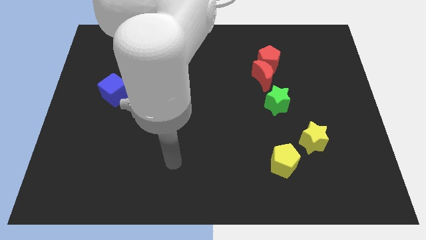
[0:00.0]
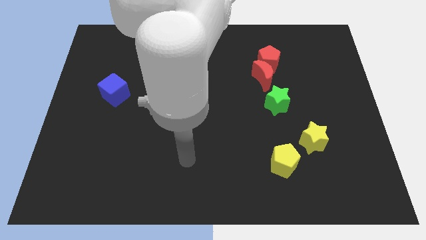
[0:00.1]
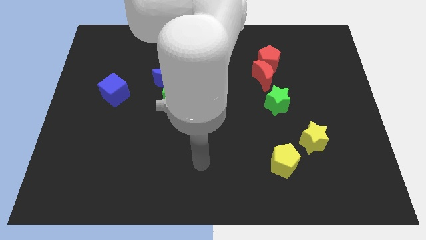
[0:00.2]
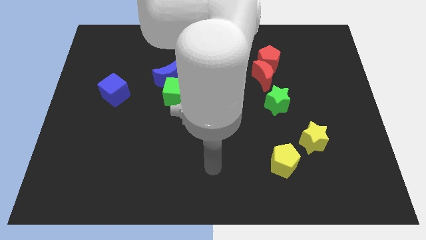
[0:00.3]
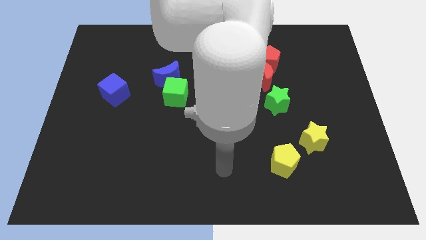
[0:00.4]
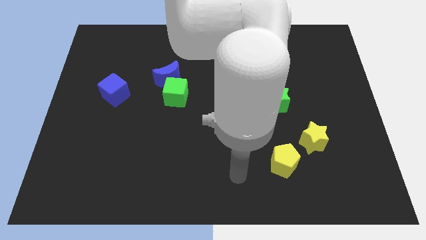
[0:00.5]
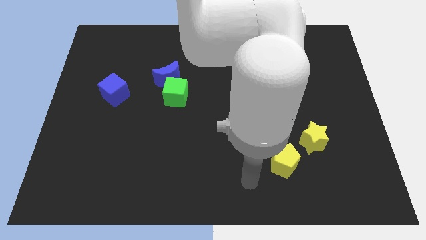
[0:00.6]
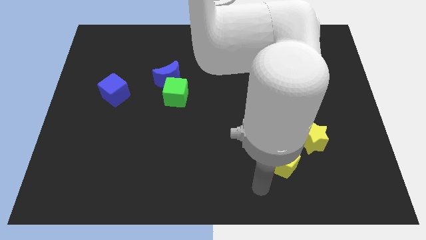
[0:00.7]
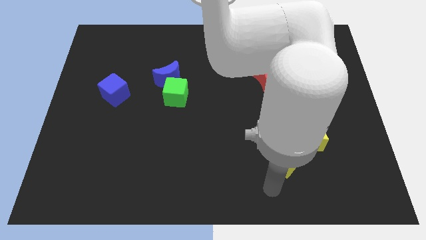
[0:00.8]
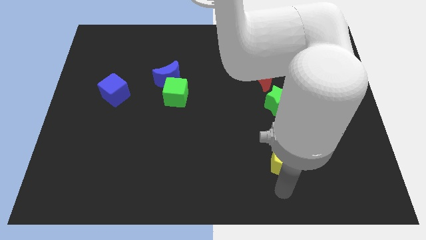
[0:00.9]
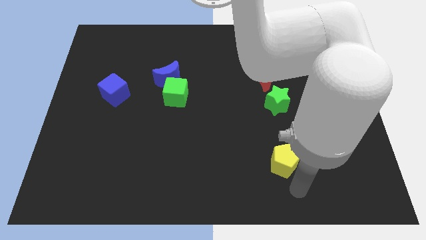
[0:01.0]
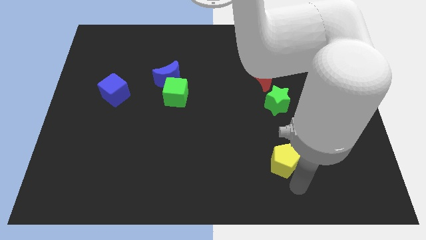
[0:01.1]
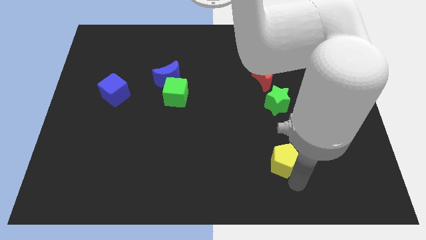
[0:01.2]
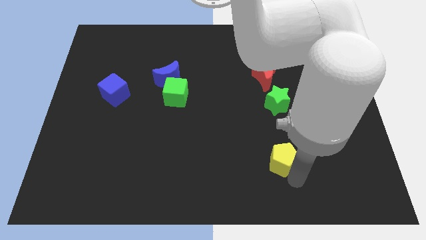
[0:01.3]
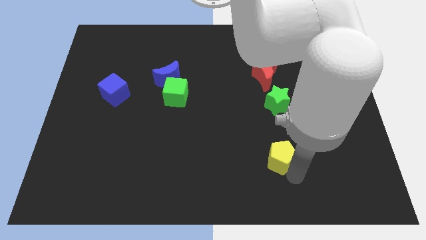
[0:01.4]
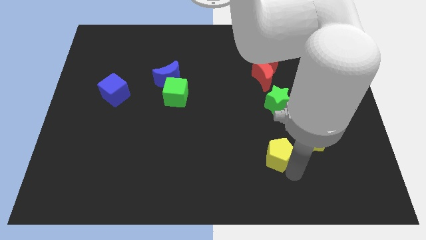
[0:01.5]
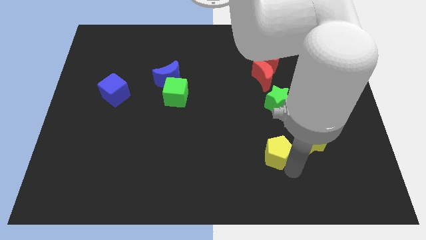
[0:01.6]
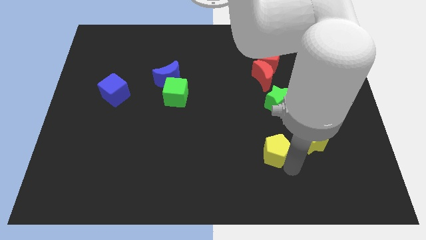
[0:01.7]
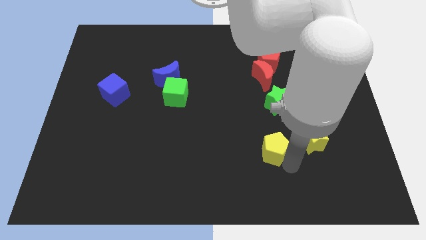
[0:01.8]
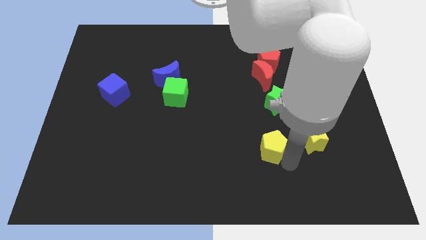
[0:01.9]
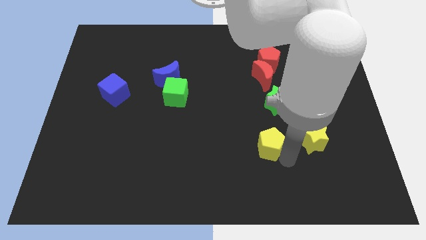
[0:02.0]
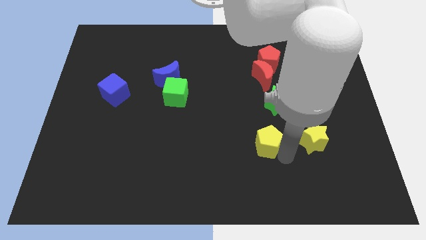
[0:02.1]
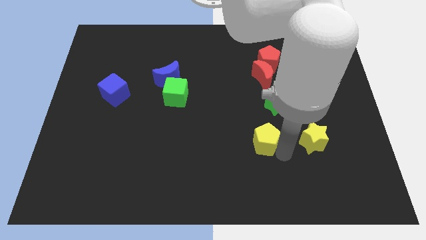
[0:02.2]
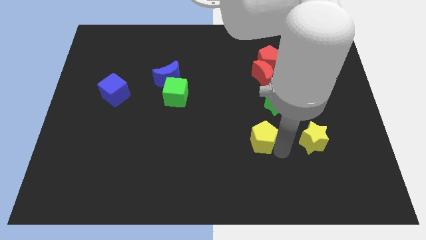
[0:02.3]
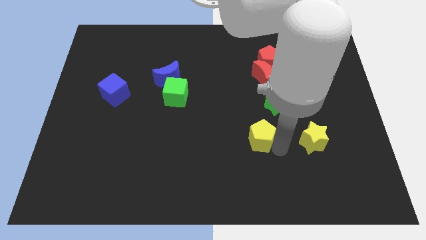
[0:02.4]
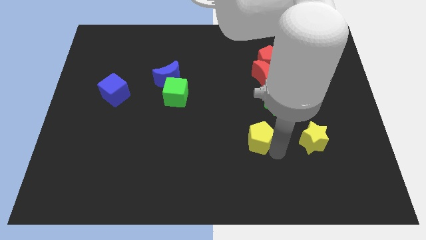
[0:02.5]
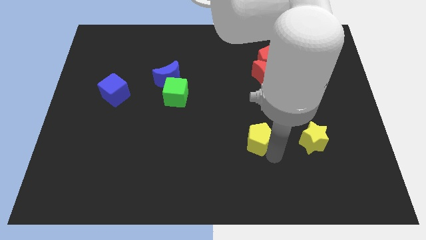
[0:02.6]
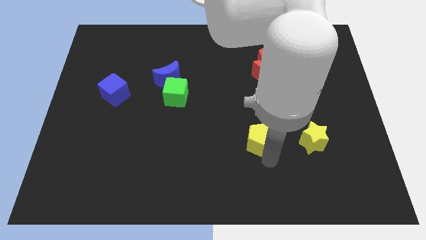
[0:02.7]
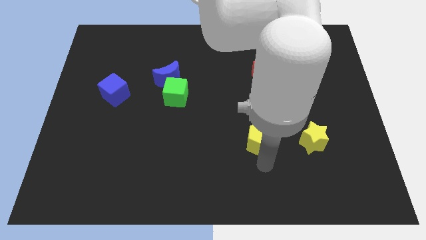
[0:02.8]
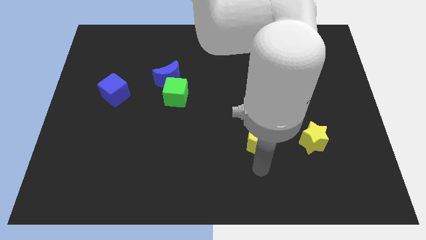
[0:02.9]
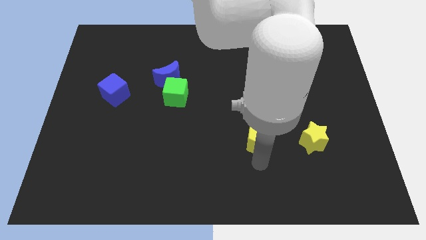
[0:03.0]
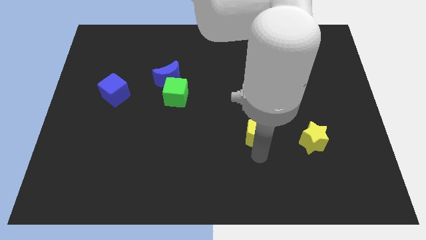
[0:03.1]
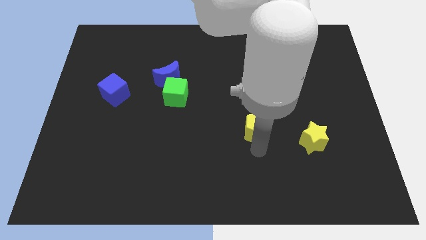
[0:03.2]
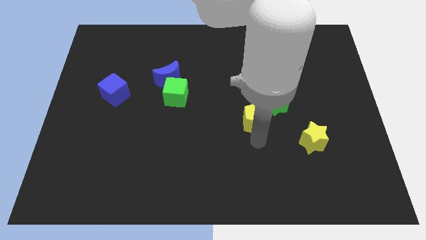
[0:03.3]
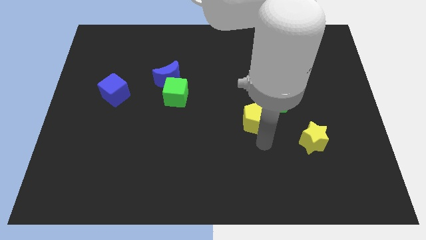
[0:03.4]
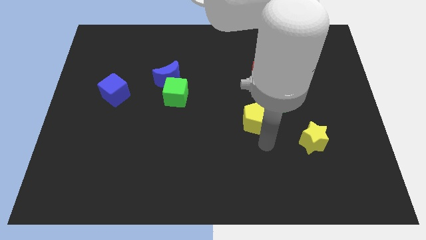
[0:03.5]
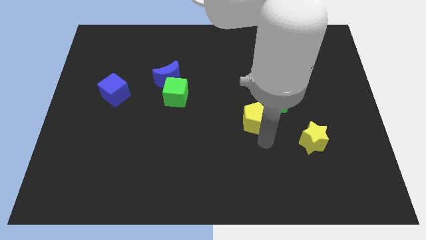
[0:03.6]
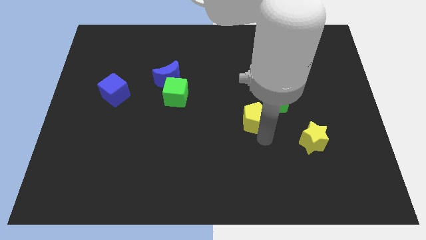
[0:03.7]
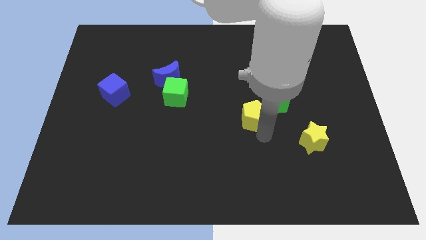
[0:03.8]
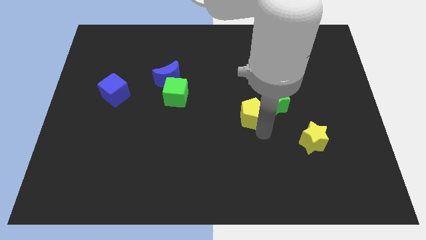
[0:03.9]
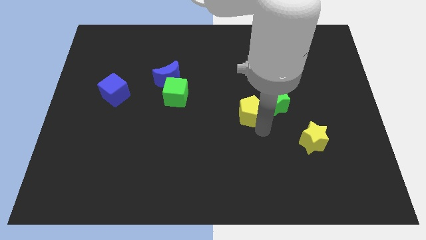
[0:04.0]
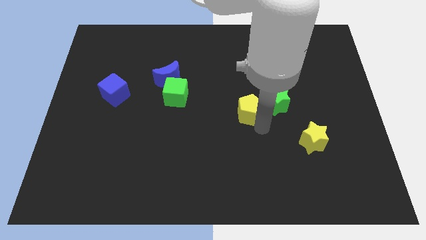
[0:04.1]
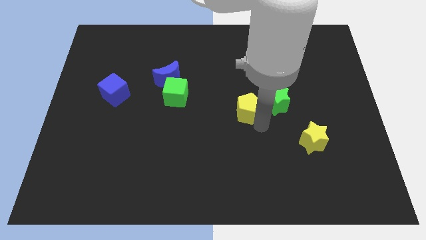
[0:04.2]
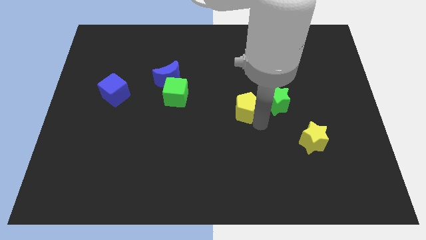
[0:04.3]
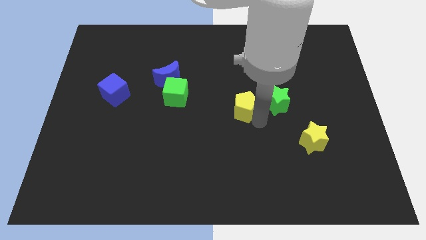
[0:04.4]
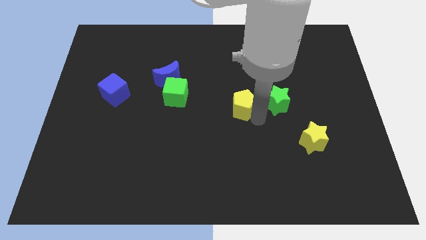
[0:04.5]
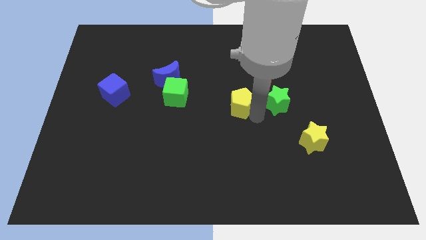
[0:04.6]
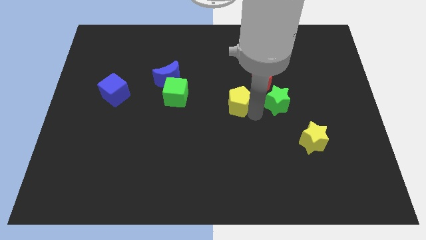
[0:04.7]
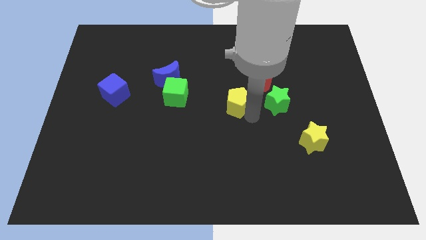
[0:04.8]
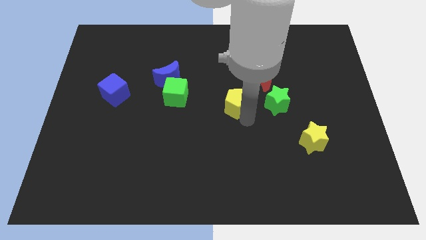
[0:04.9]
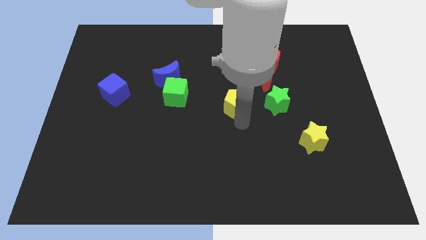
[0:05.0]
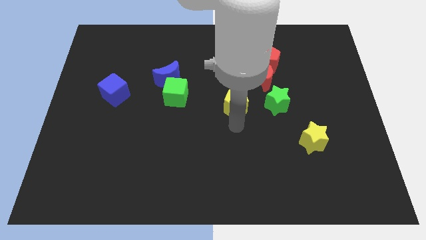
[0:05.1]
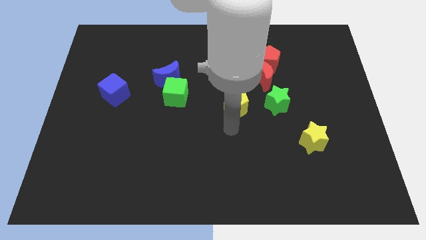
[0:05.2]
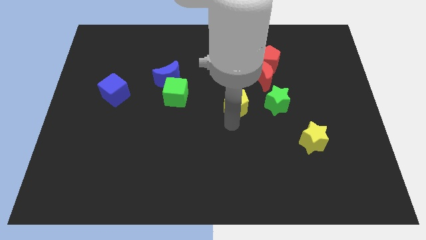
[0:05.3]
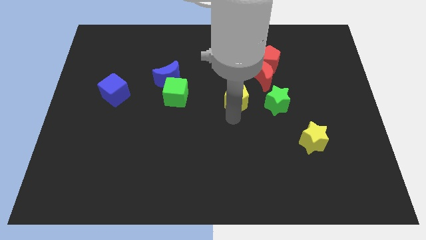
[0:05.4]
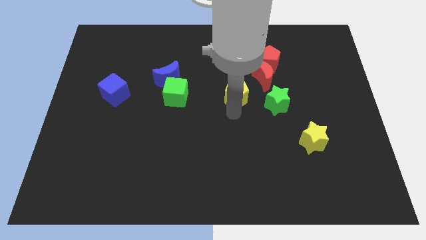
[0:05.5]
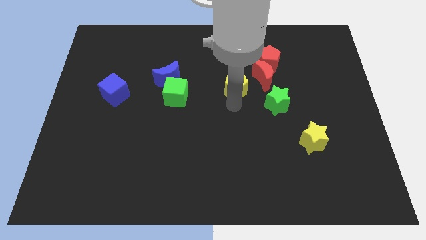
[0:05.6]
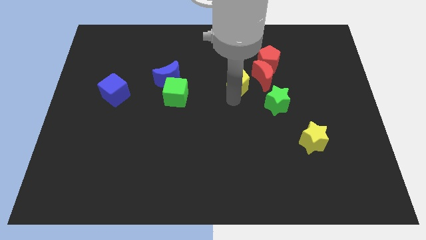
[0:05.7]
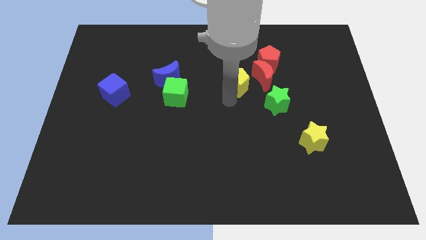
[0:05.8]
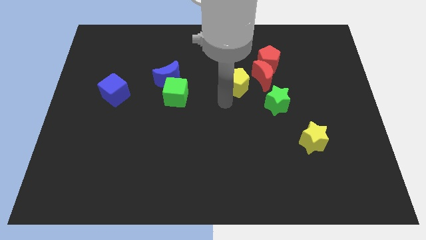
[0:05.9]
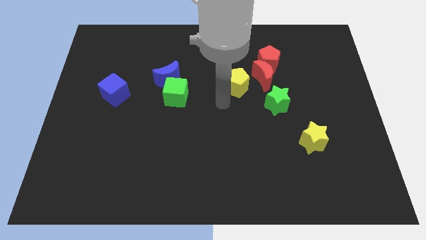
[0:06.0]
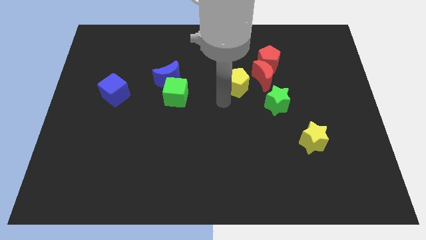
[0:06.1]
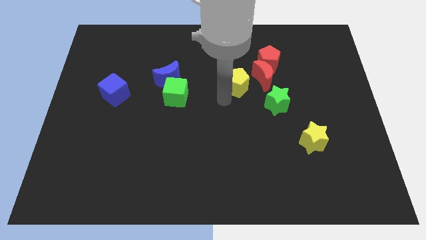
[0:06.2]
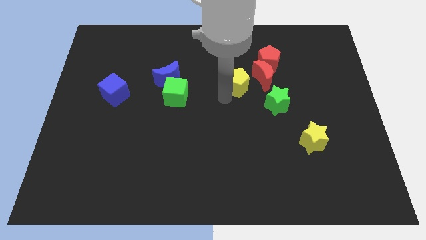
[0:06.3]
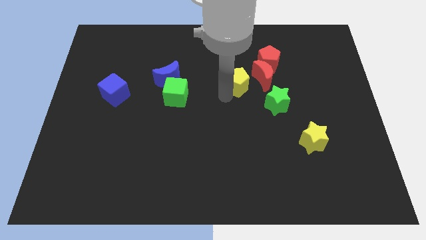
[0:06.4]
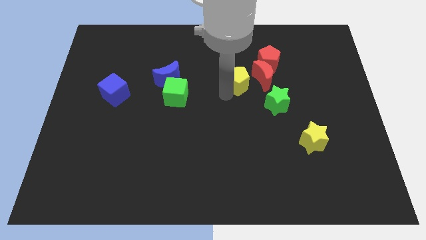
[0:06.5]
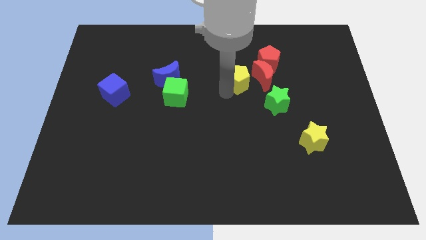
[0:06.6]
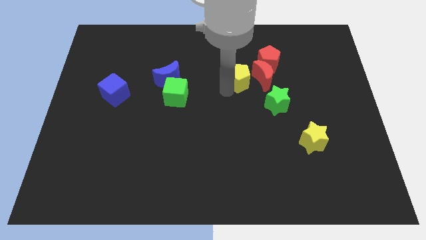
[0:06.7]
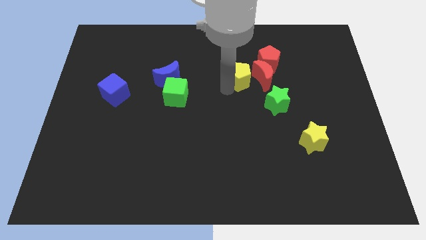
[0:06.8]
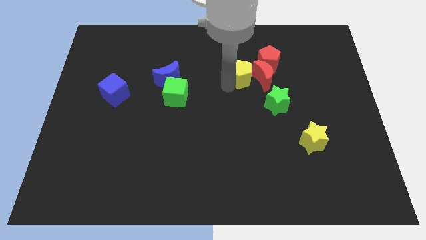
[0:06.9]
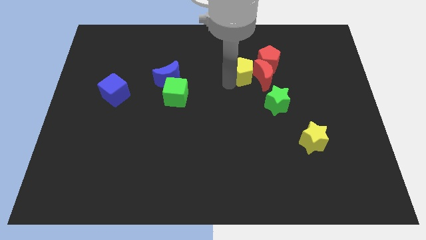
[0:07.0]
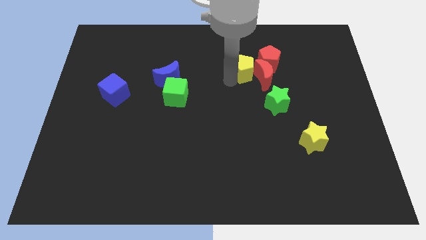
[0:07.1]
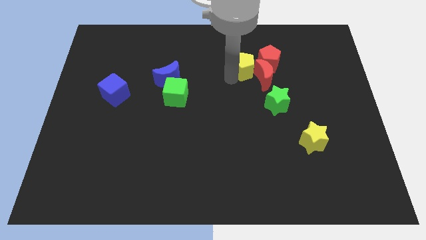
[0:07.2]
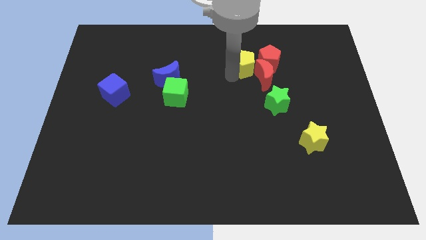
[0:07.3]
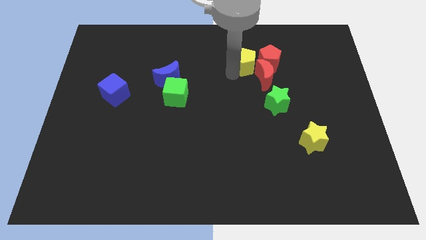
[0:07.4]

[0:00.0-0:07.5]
put the yellow pentagon to the red pentagon
